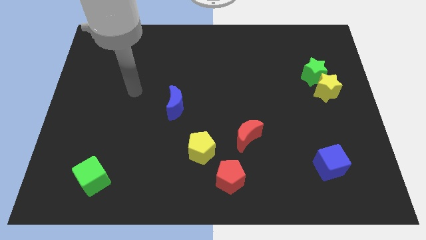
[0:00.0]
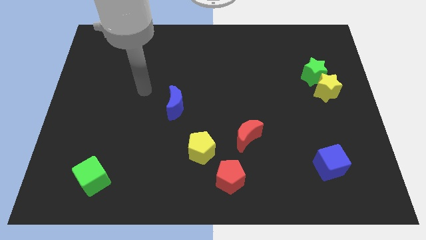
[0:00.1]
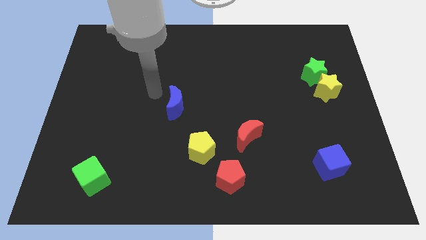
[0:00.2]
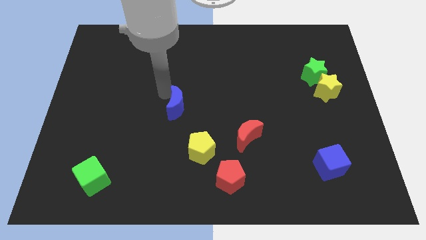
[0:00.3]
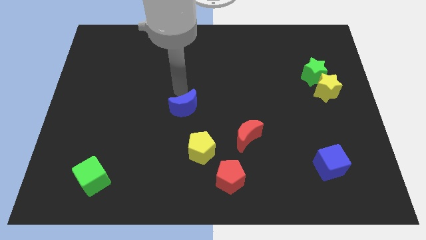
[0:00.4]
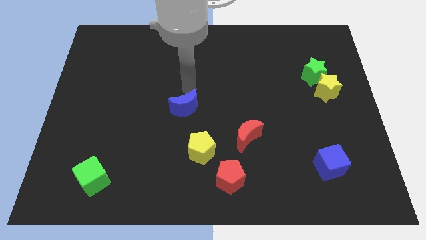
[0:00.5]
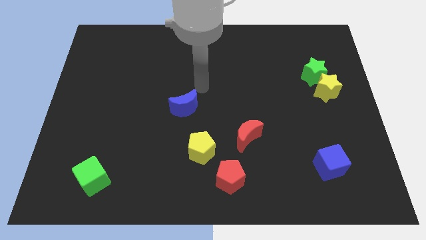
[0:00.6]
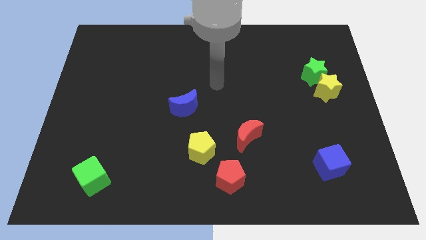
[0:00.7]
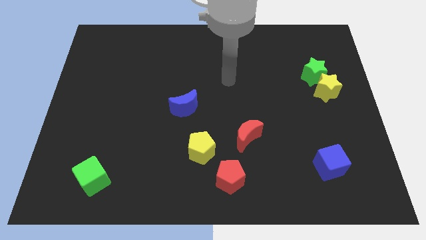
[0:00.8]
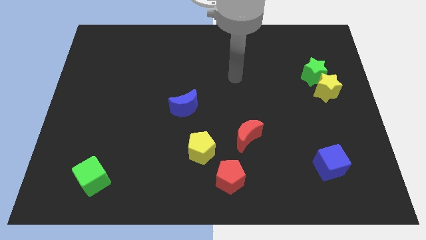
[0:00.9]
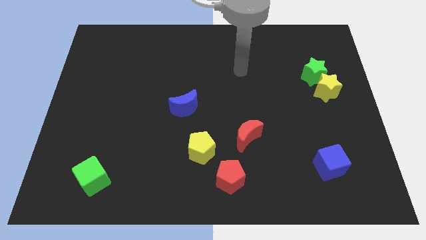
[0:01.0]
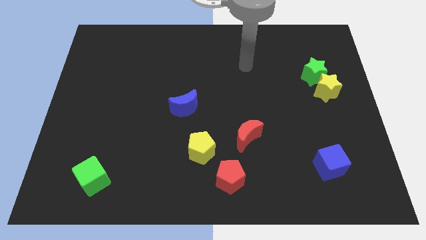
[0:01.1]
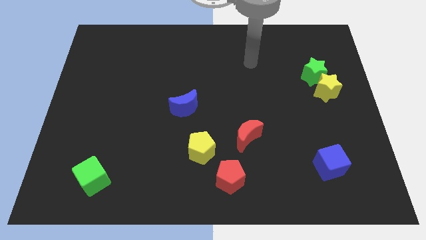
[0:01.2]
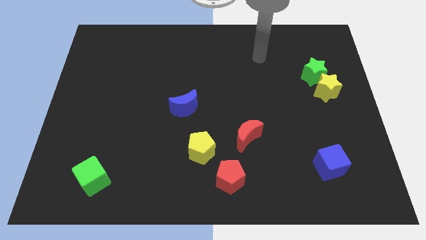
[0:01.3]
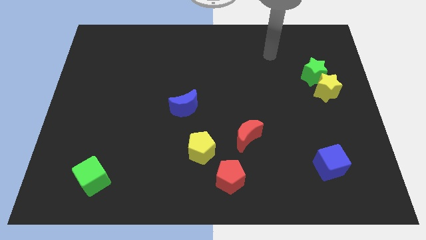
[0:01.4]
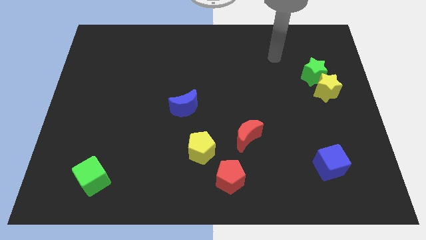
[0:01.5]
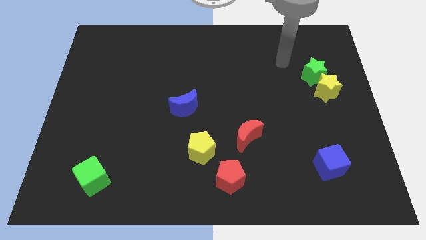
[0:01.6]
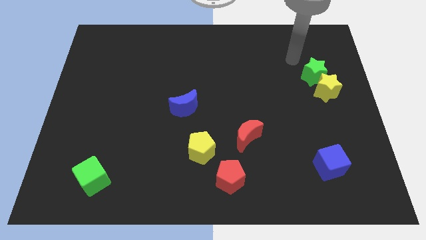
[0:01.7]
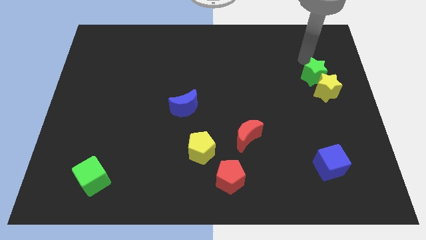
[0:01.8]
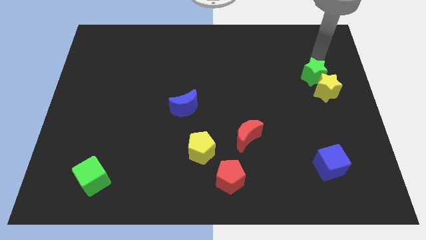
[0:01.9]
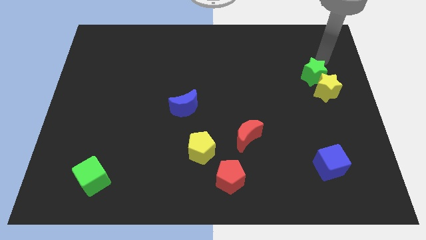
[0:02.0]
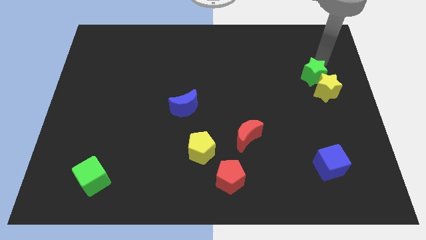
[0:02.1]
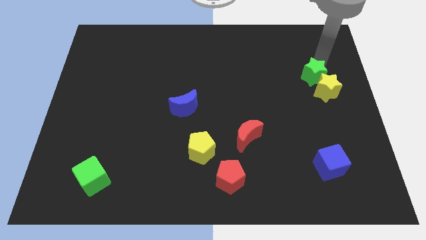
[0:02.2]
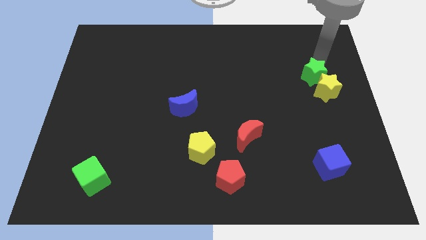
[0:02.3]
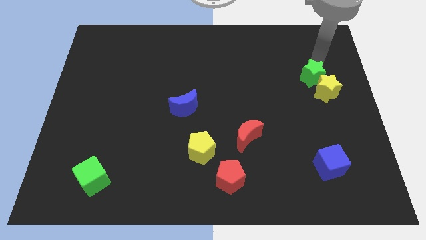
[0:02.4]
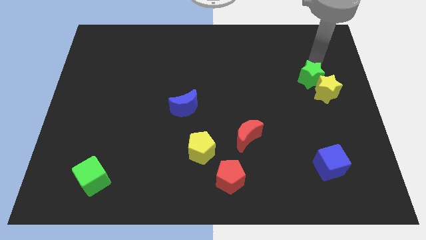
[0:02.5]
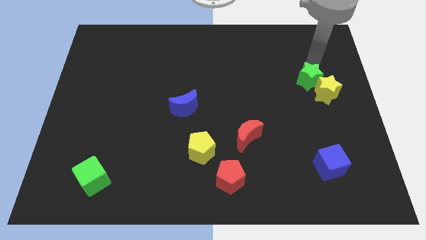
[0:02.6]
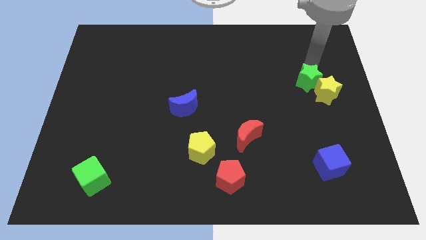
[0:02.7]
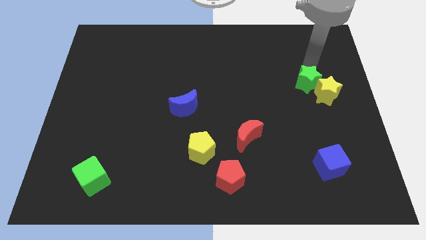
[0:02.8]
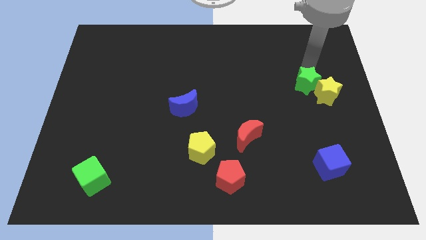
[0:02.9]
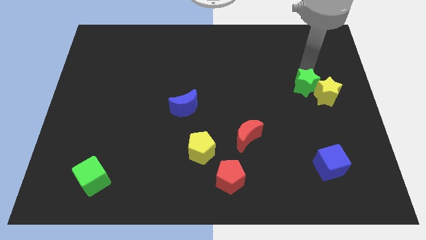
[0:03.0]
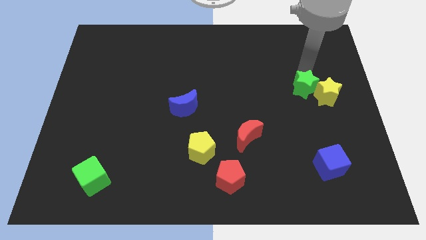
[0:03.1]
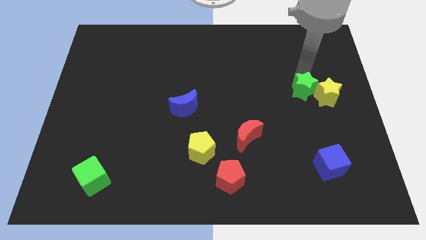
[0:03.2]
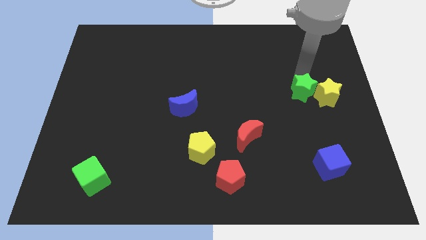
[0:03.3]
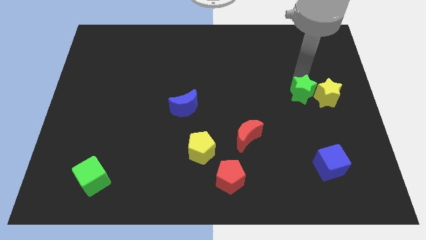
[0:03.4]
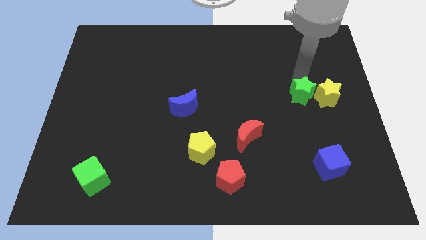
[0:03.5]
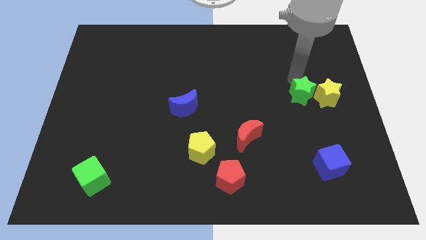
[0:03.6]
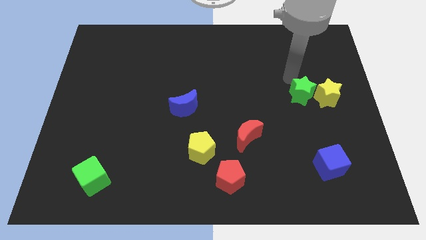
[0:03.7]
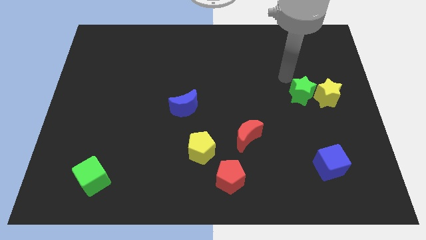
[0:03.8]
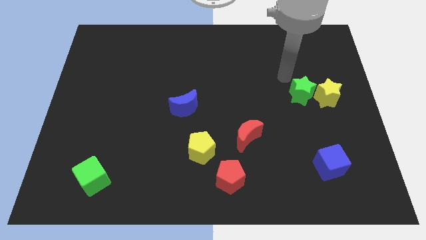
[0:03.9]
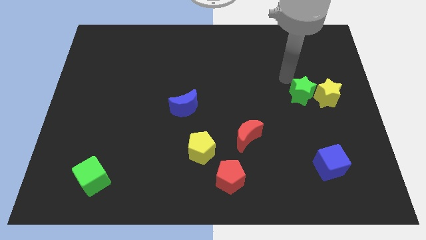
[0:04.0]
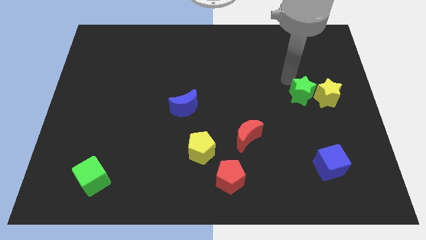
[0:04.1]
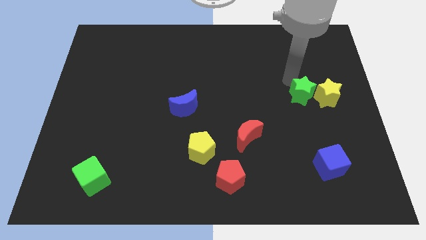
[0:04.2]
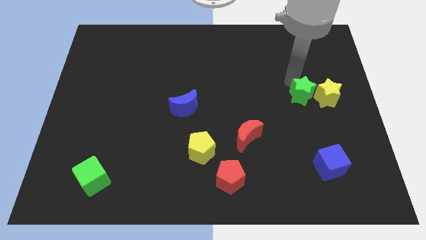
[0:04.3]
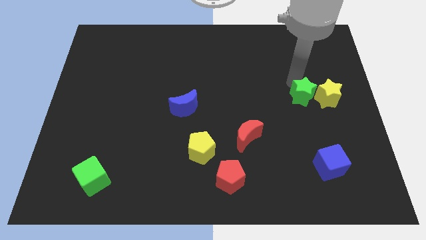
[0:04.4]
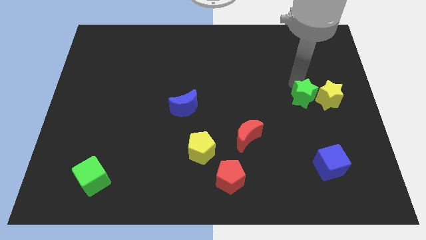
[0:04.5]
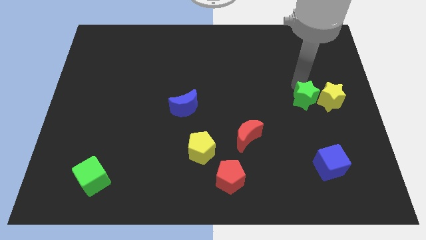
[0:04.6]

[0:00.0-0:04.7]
slide the green star somewhat downwards

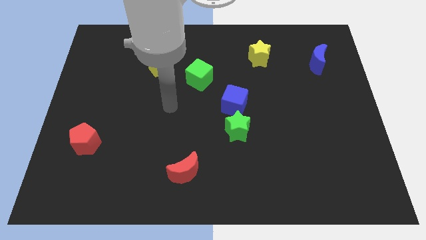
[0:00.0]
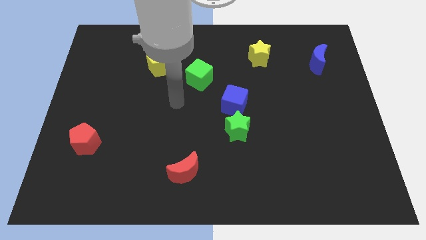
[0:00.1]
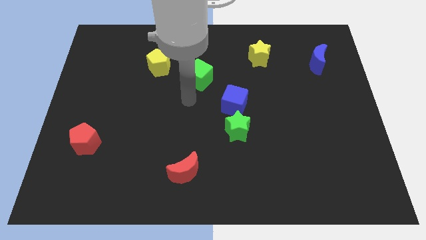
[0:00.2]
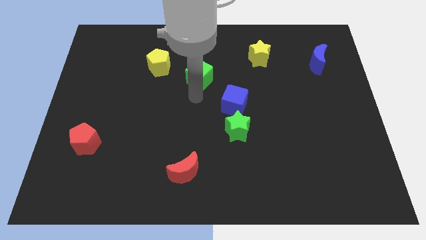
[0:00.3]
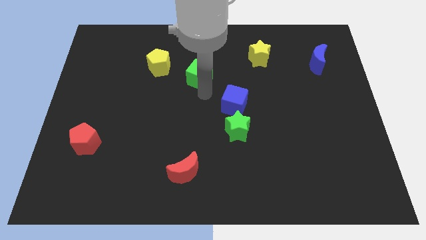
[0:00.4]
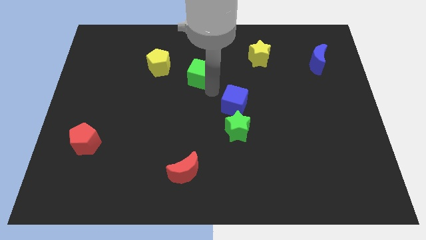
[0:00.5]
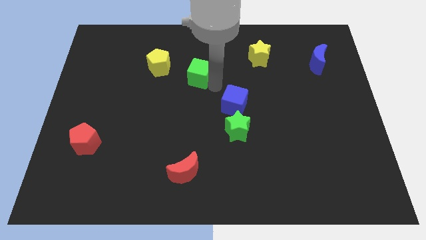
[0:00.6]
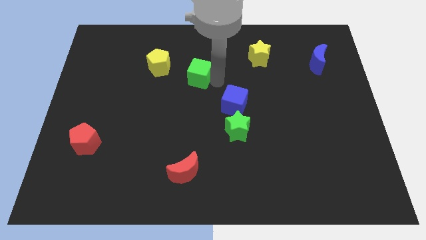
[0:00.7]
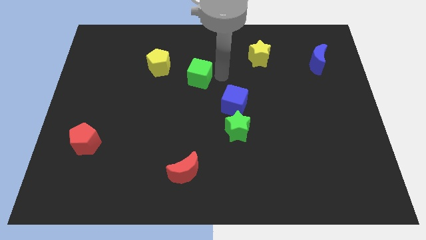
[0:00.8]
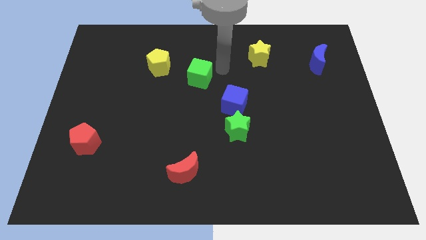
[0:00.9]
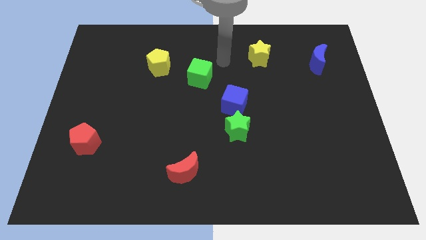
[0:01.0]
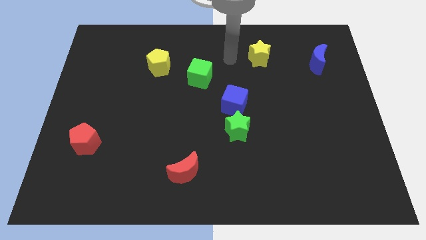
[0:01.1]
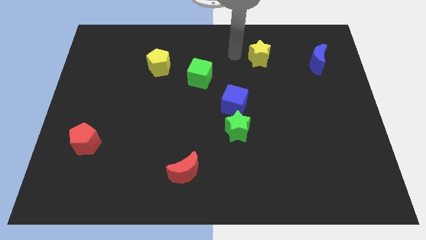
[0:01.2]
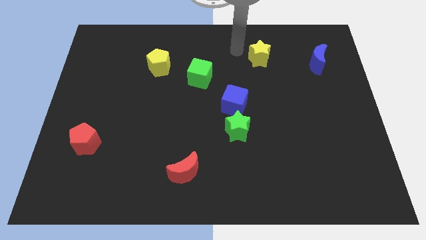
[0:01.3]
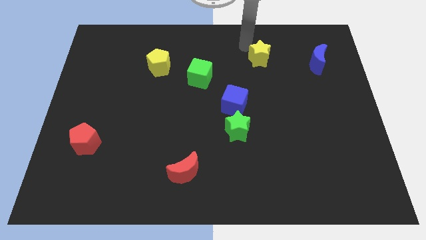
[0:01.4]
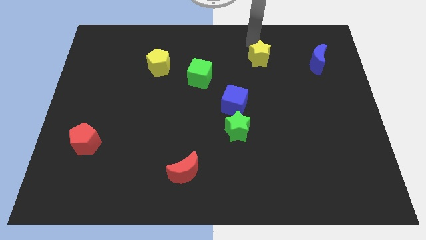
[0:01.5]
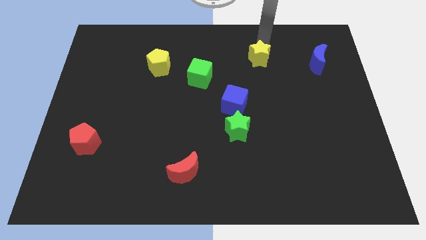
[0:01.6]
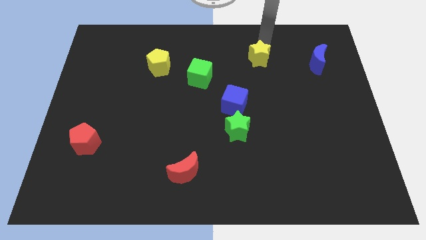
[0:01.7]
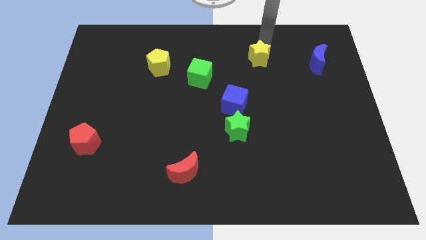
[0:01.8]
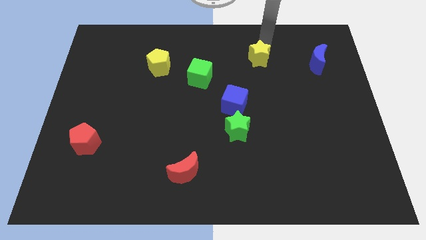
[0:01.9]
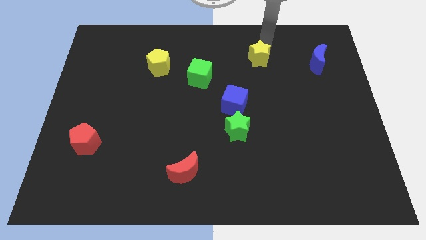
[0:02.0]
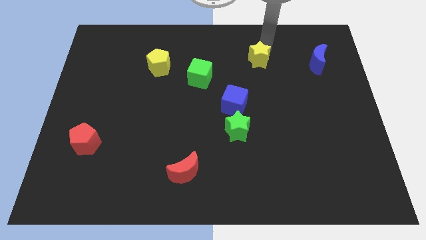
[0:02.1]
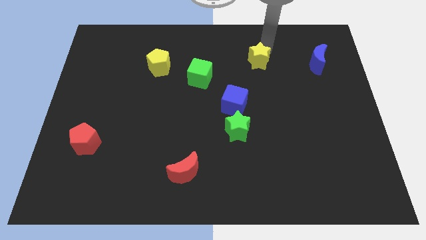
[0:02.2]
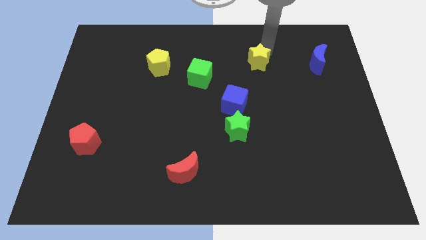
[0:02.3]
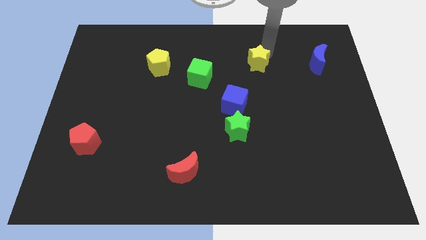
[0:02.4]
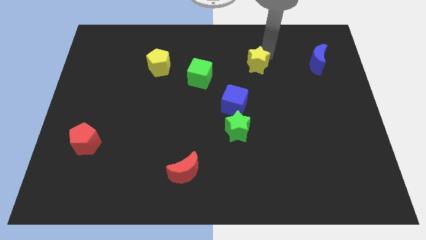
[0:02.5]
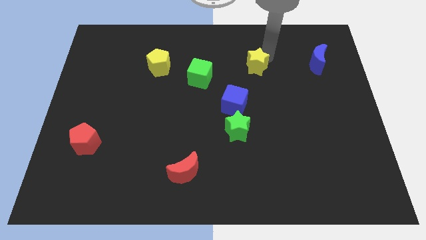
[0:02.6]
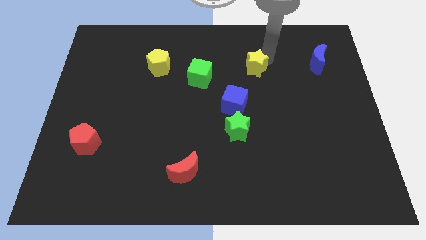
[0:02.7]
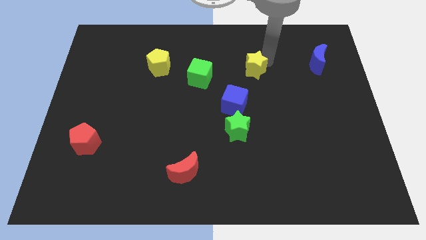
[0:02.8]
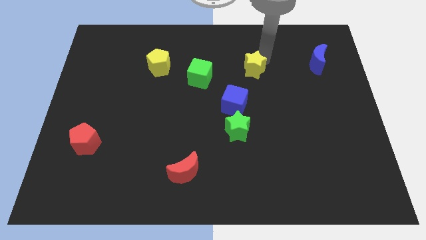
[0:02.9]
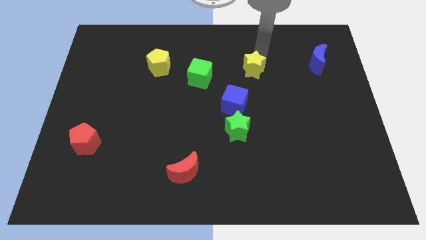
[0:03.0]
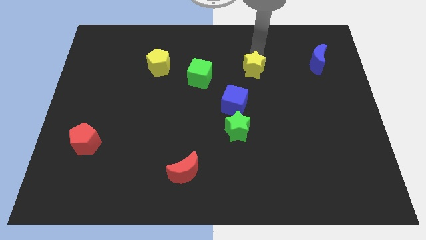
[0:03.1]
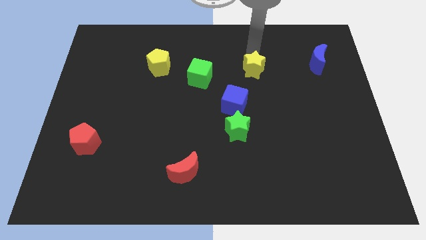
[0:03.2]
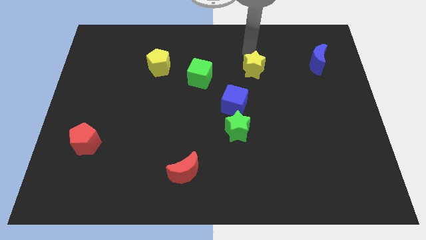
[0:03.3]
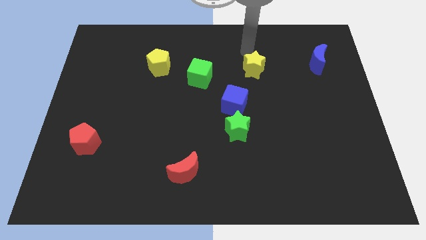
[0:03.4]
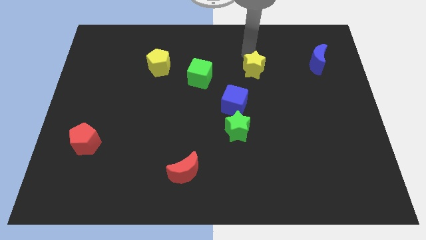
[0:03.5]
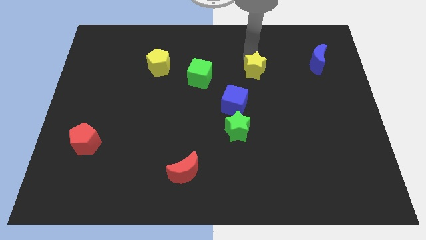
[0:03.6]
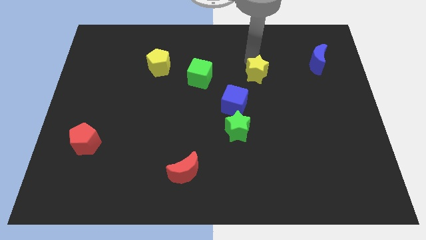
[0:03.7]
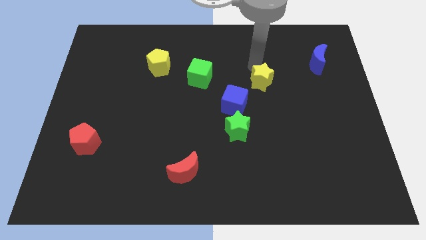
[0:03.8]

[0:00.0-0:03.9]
slide the yellow star downwards slightly
